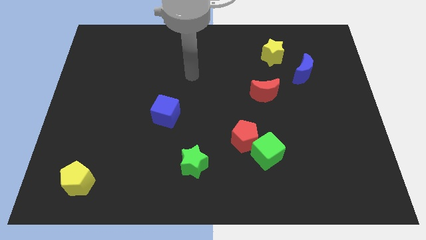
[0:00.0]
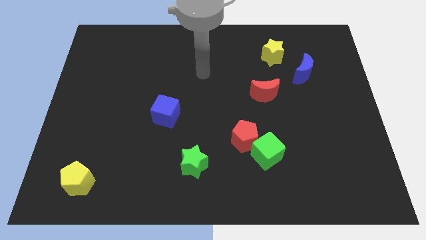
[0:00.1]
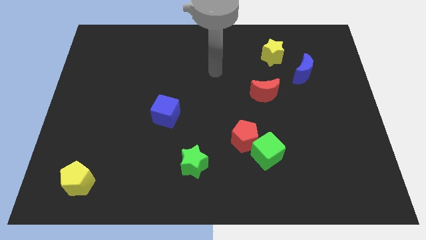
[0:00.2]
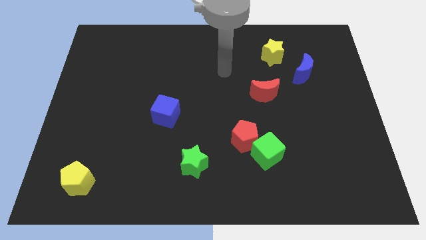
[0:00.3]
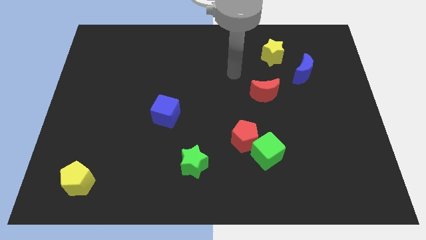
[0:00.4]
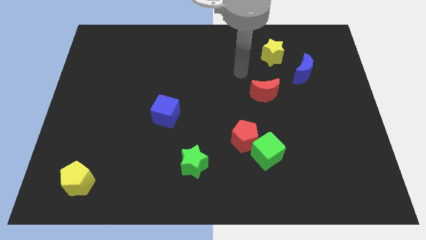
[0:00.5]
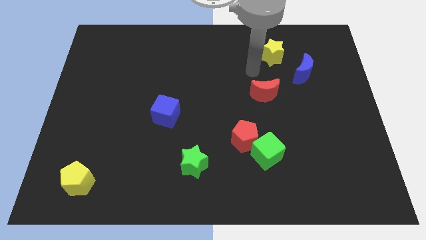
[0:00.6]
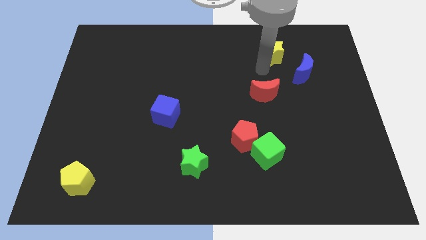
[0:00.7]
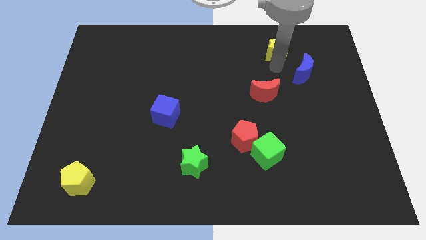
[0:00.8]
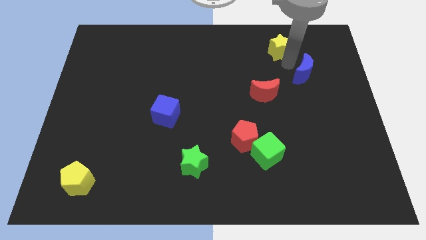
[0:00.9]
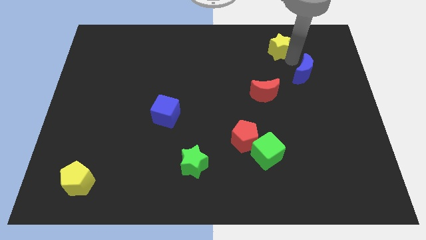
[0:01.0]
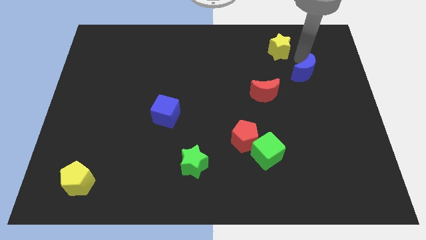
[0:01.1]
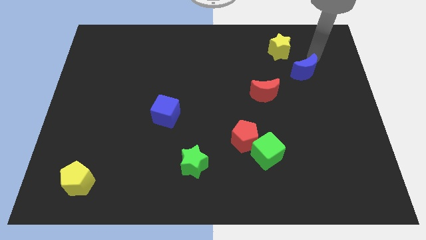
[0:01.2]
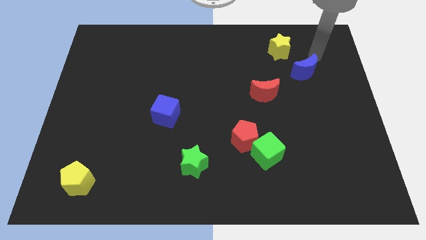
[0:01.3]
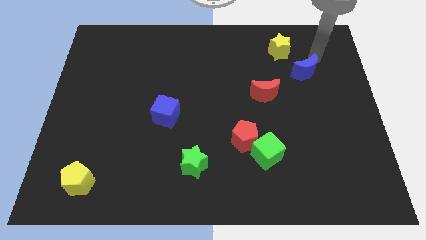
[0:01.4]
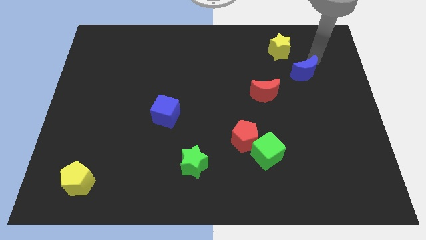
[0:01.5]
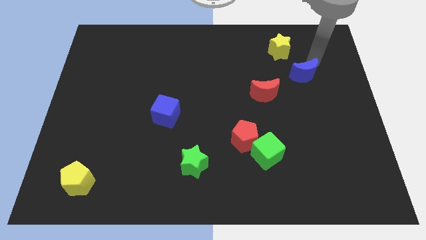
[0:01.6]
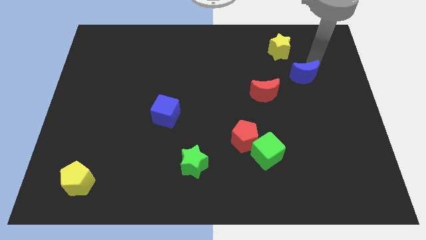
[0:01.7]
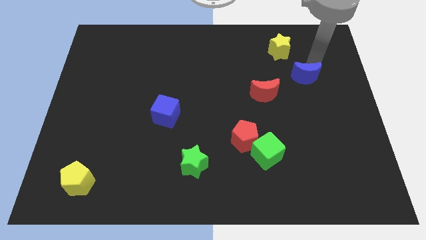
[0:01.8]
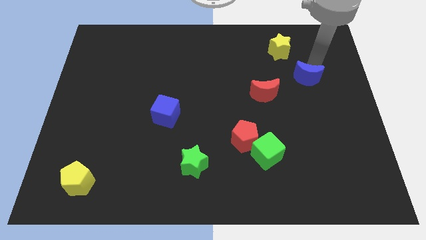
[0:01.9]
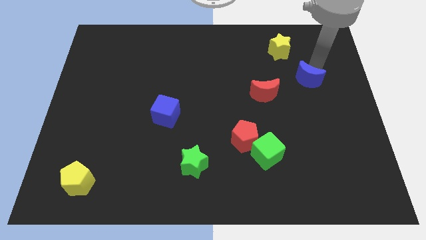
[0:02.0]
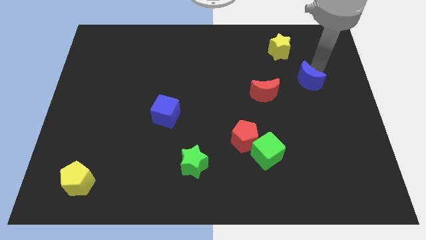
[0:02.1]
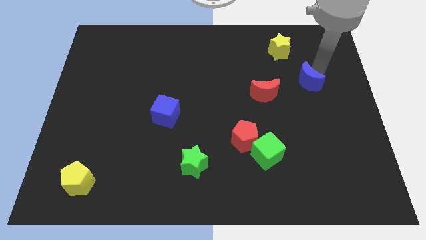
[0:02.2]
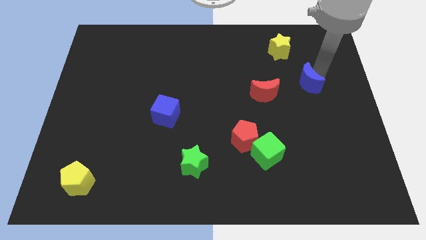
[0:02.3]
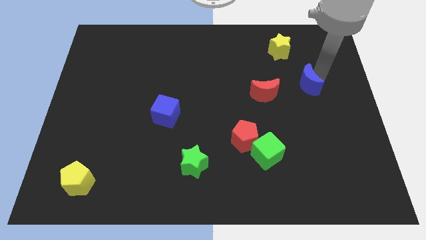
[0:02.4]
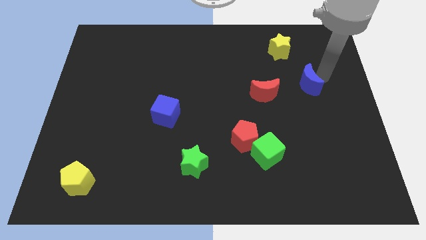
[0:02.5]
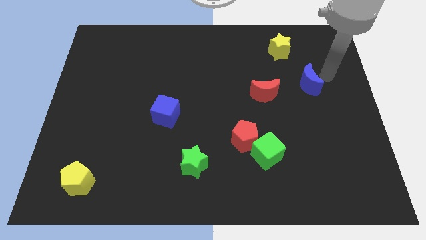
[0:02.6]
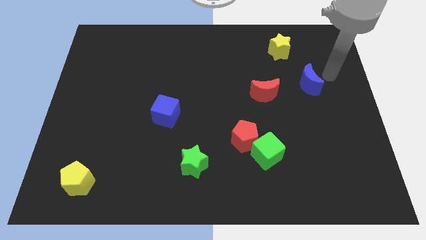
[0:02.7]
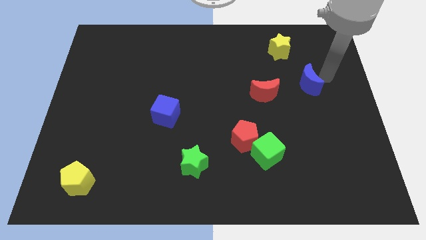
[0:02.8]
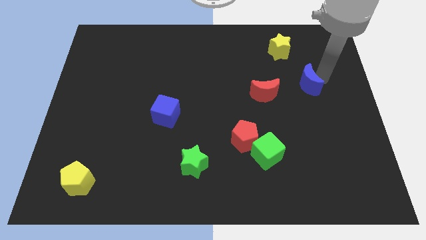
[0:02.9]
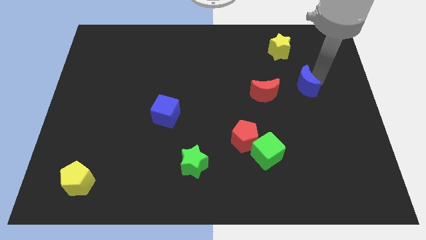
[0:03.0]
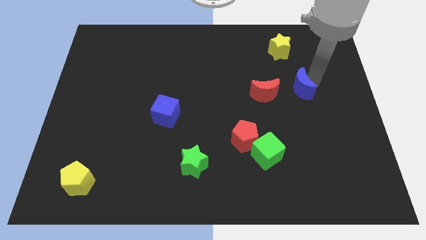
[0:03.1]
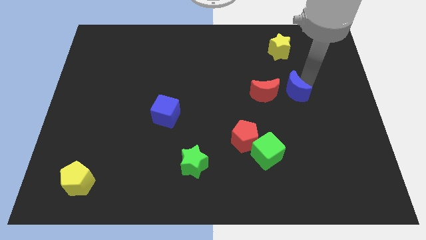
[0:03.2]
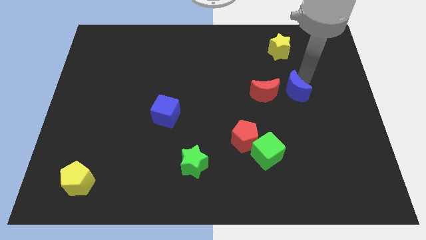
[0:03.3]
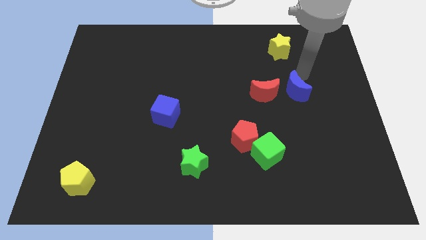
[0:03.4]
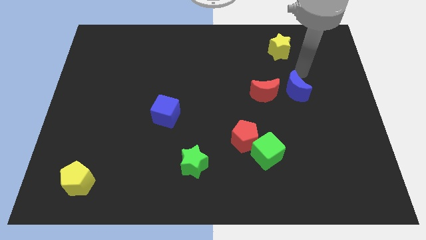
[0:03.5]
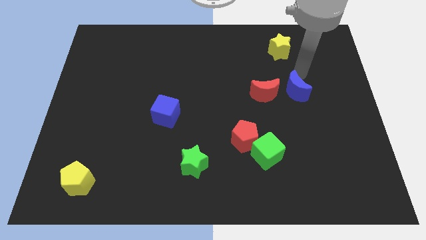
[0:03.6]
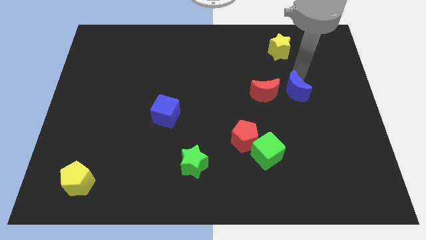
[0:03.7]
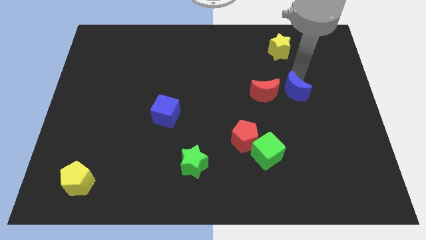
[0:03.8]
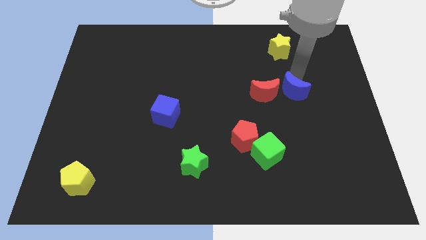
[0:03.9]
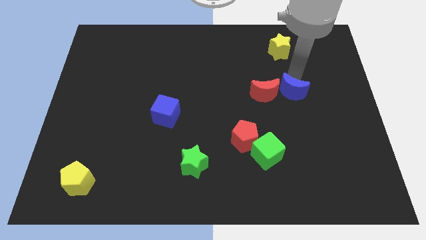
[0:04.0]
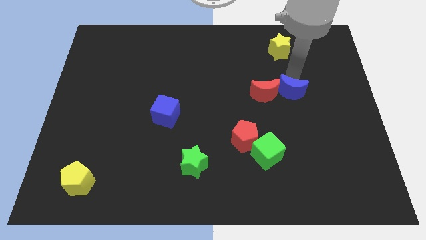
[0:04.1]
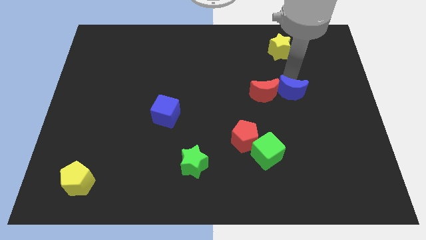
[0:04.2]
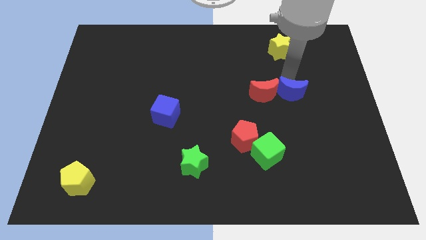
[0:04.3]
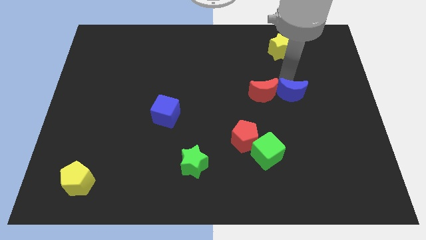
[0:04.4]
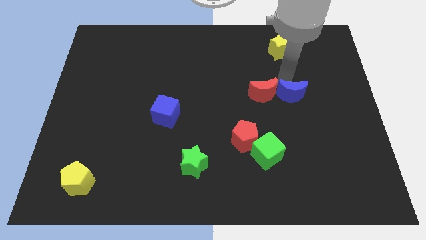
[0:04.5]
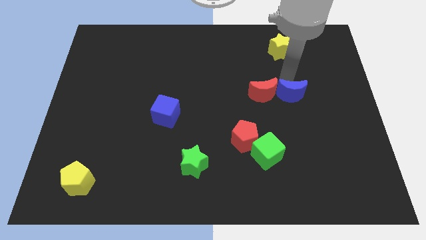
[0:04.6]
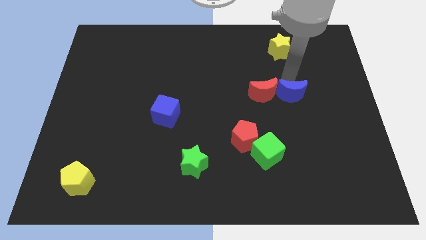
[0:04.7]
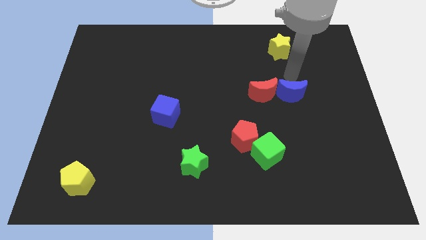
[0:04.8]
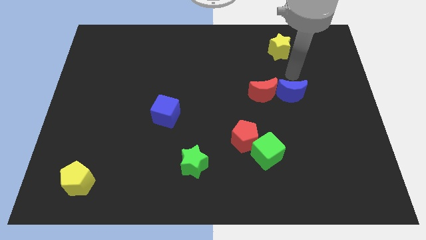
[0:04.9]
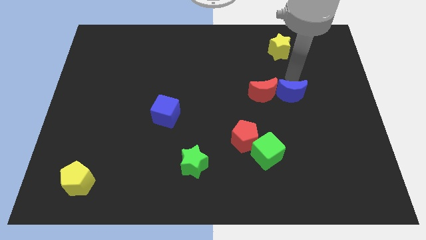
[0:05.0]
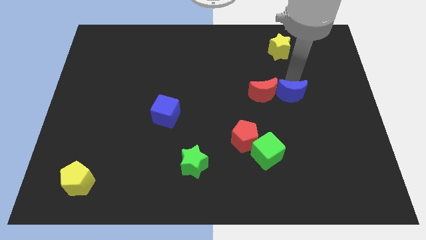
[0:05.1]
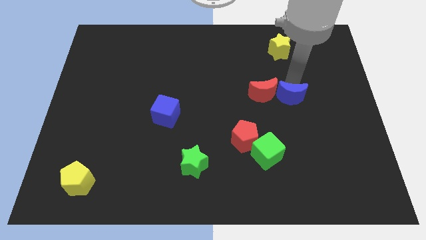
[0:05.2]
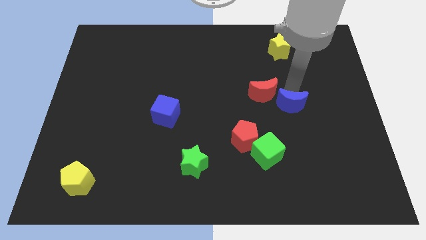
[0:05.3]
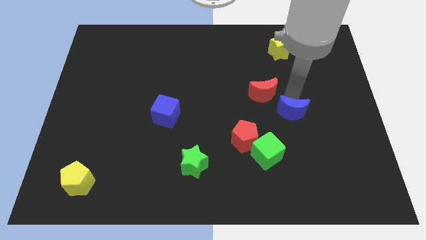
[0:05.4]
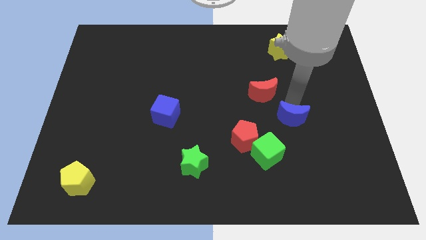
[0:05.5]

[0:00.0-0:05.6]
put the blue moon diagonally up and to the right of the green cube

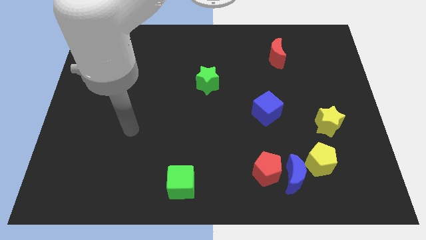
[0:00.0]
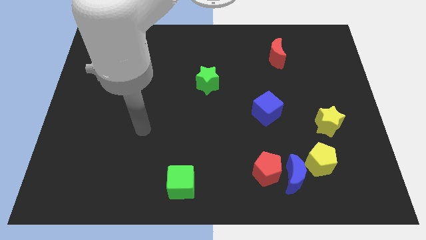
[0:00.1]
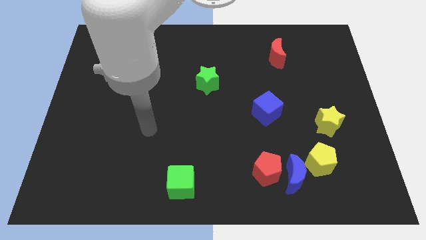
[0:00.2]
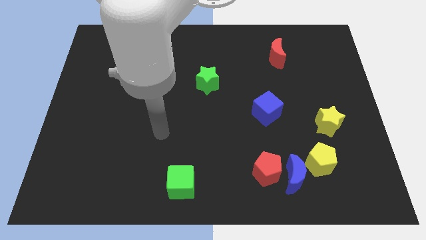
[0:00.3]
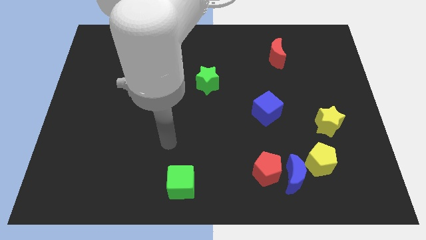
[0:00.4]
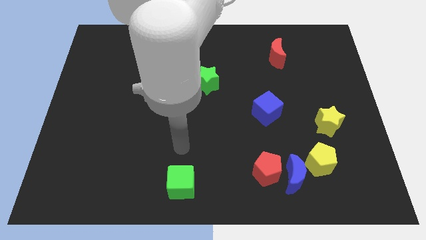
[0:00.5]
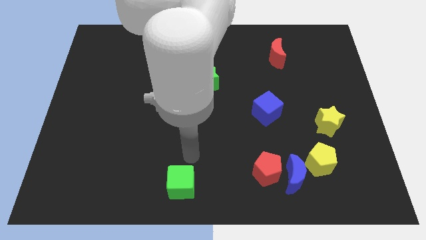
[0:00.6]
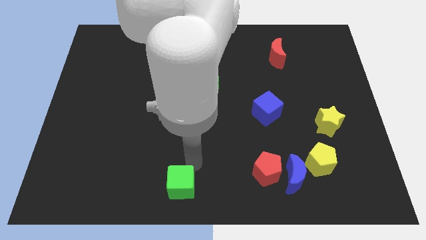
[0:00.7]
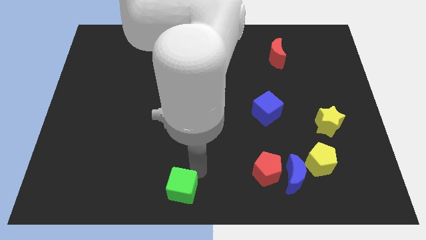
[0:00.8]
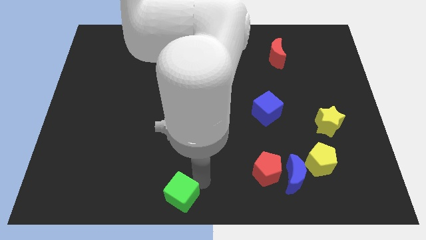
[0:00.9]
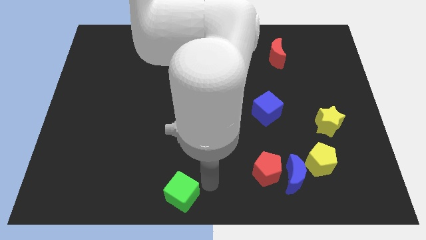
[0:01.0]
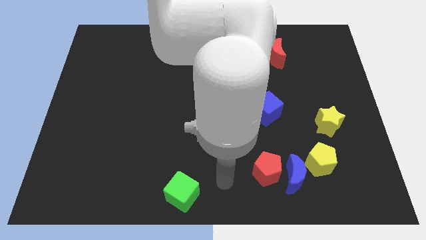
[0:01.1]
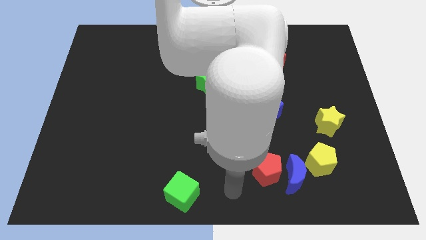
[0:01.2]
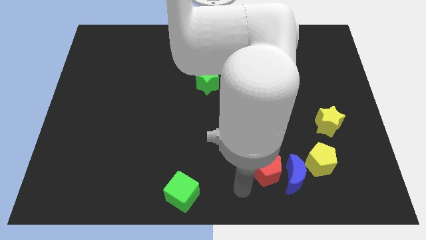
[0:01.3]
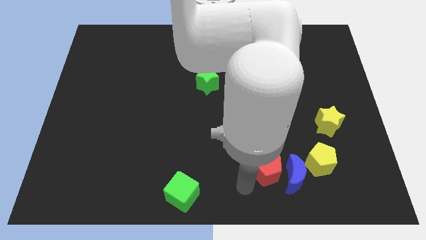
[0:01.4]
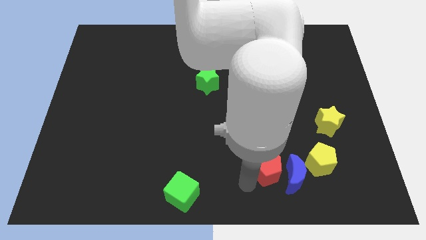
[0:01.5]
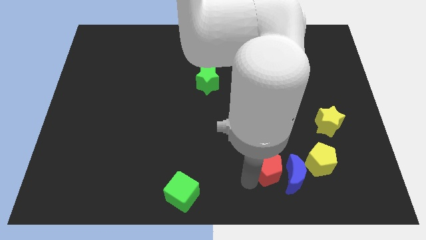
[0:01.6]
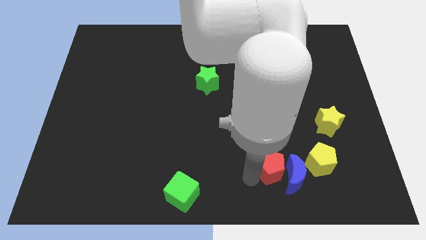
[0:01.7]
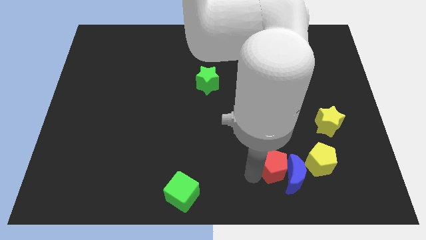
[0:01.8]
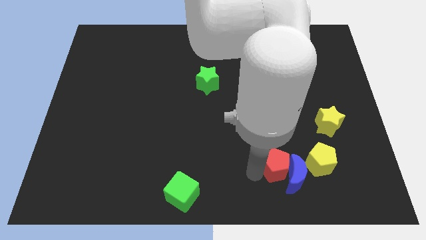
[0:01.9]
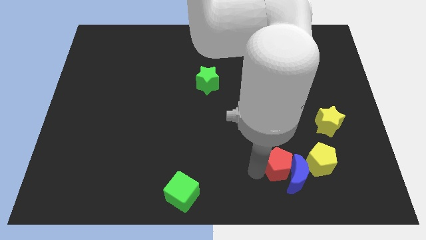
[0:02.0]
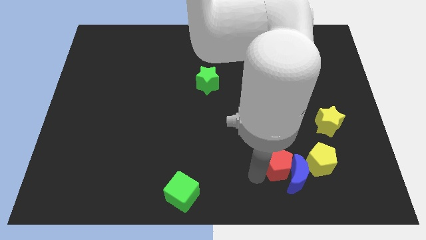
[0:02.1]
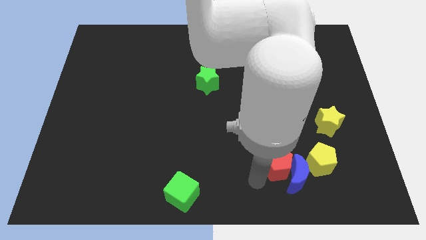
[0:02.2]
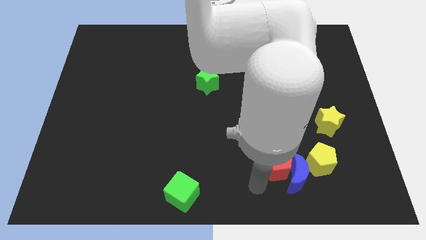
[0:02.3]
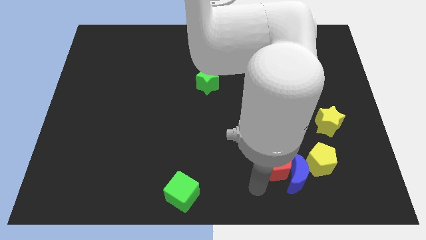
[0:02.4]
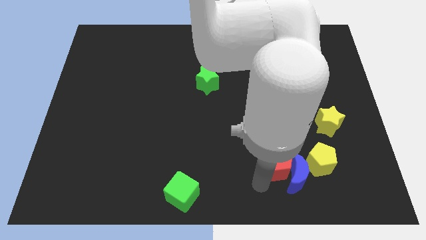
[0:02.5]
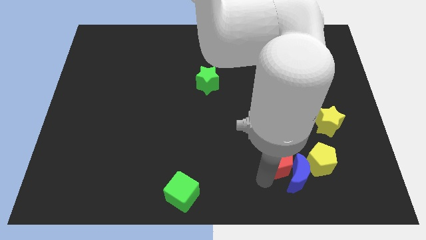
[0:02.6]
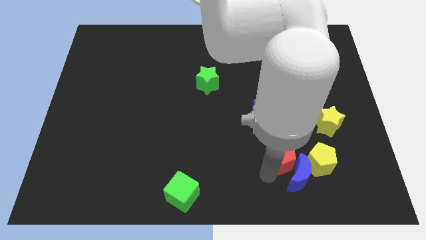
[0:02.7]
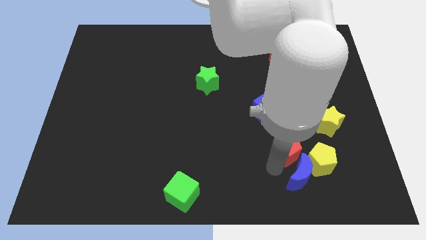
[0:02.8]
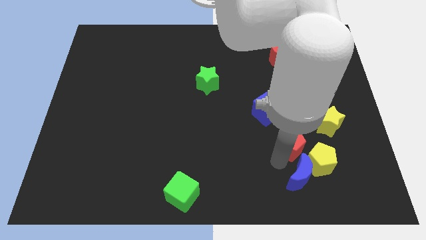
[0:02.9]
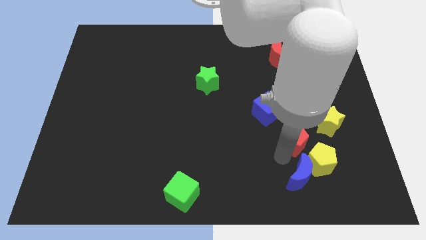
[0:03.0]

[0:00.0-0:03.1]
slide the red pentagon above the yellow pentagon
